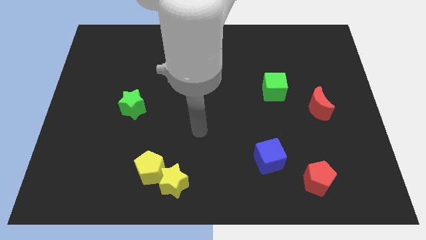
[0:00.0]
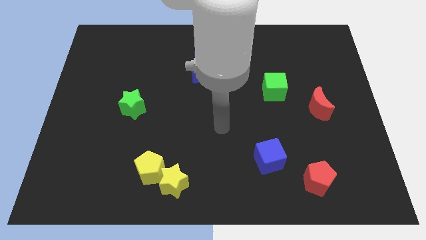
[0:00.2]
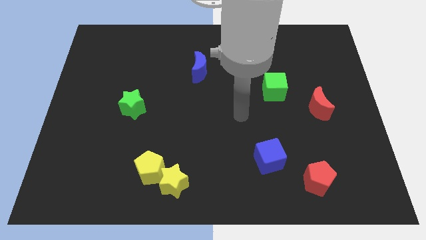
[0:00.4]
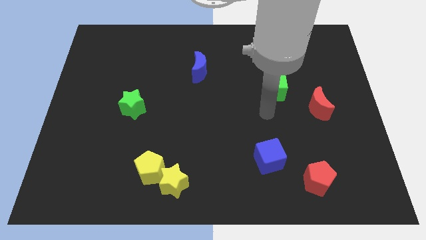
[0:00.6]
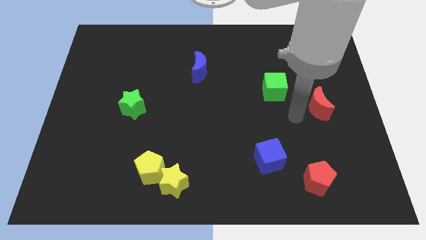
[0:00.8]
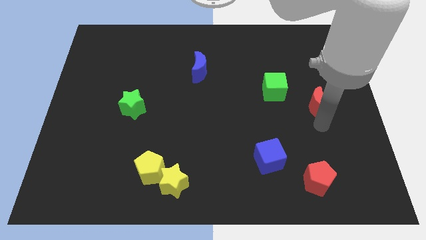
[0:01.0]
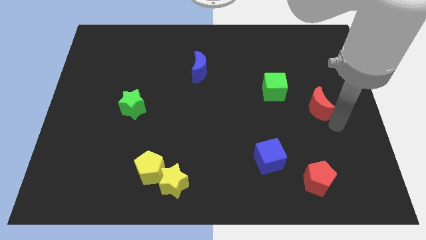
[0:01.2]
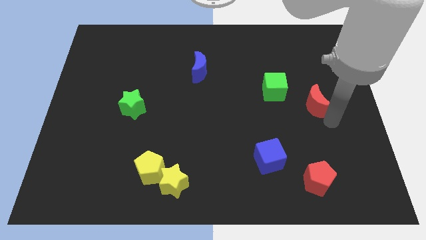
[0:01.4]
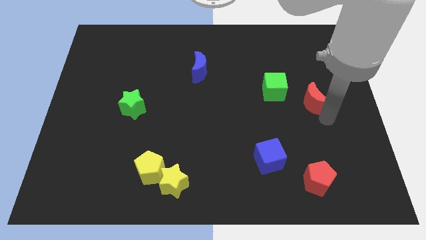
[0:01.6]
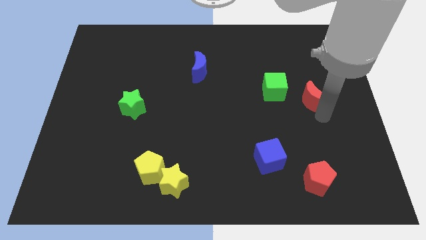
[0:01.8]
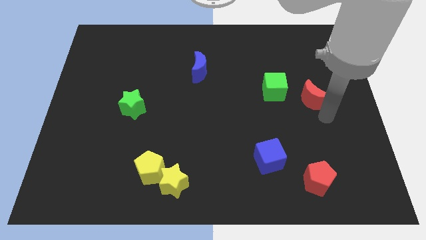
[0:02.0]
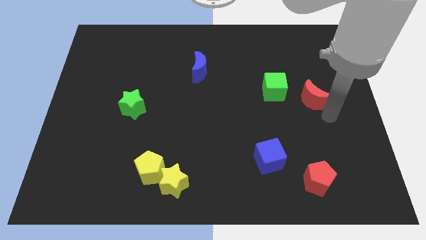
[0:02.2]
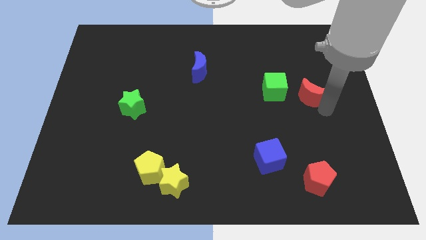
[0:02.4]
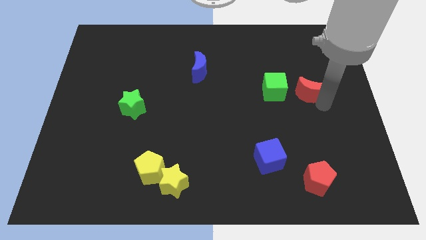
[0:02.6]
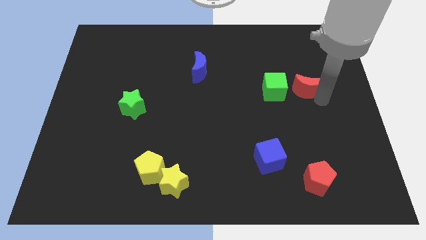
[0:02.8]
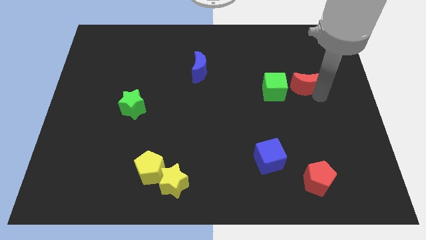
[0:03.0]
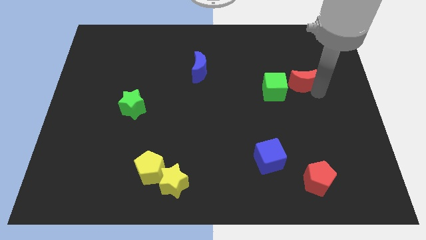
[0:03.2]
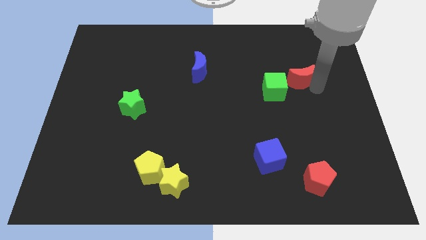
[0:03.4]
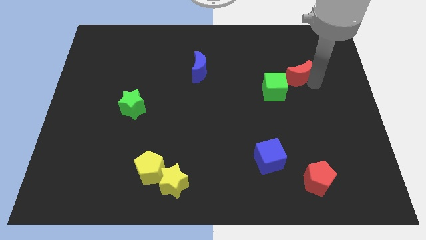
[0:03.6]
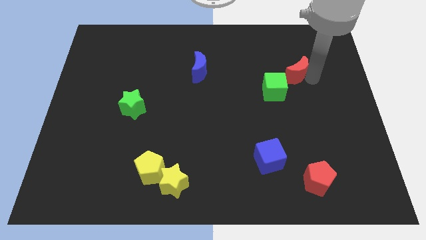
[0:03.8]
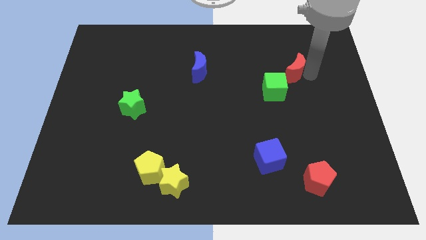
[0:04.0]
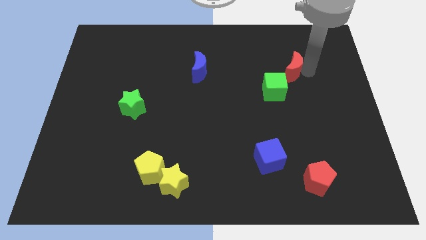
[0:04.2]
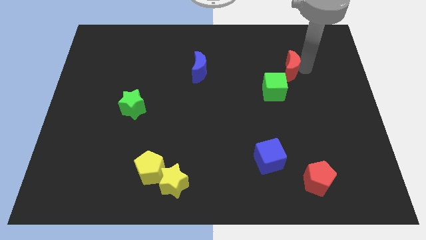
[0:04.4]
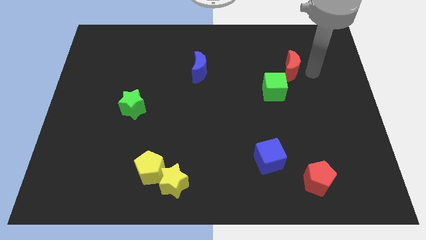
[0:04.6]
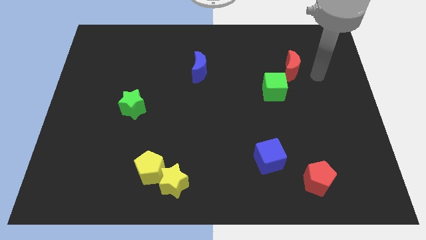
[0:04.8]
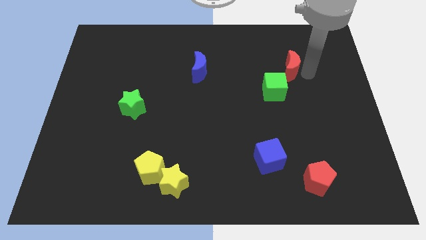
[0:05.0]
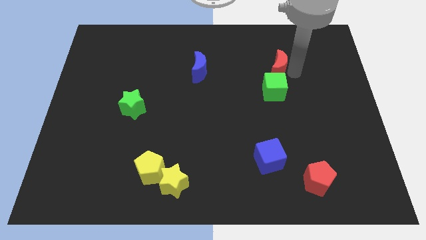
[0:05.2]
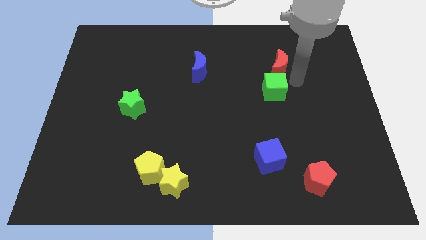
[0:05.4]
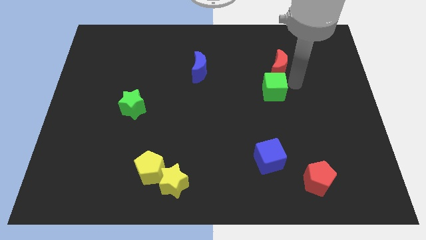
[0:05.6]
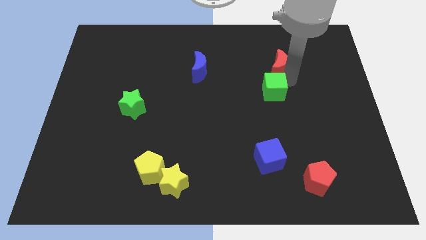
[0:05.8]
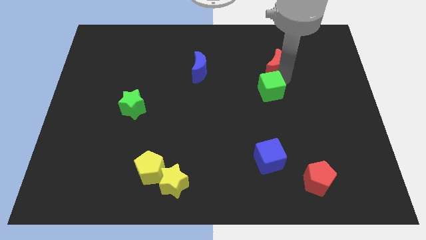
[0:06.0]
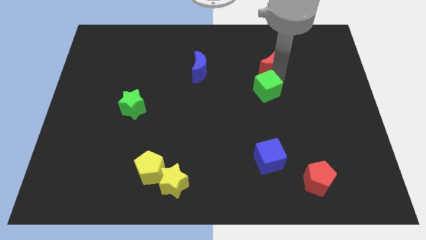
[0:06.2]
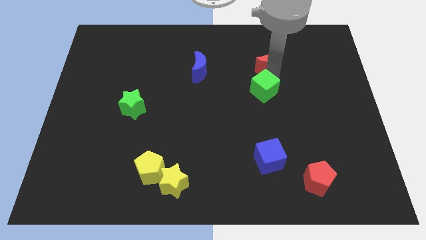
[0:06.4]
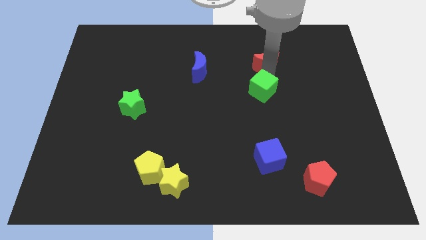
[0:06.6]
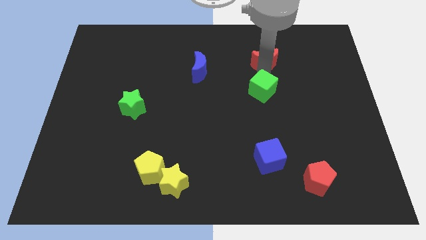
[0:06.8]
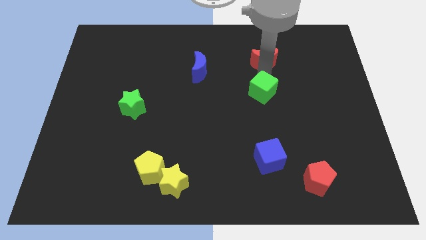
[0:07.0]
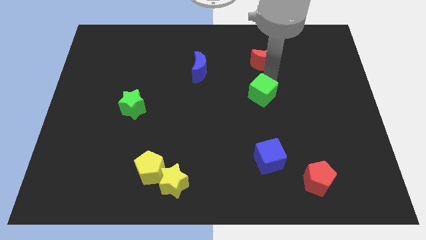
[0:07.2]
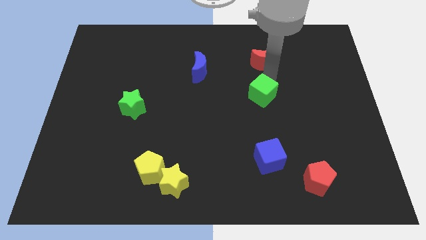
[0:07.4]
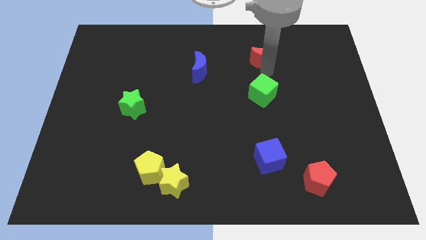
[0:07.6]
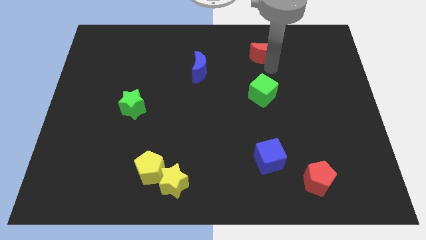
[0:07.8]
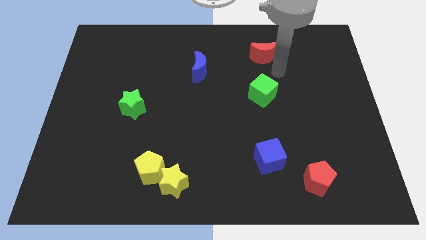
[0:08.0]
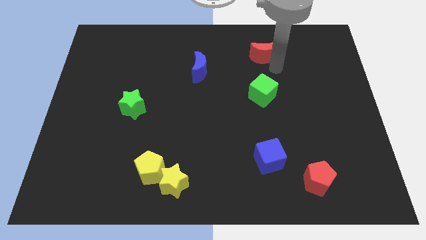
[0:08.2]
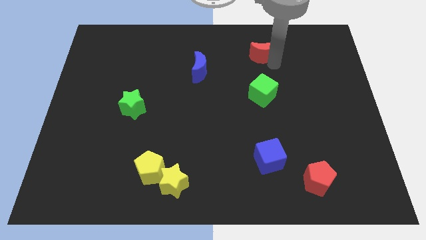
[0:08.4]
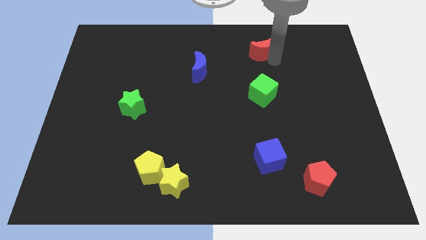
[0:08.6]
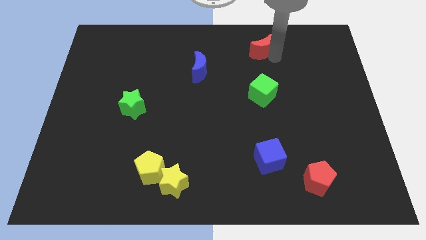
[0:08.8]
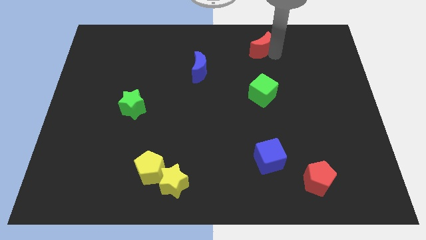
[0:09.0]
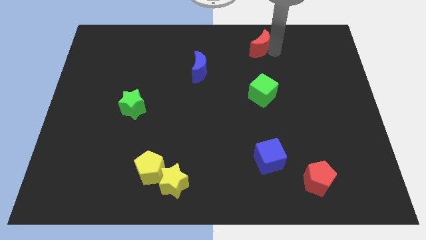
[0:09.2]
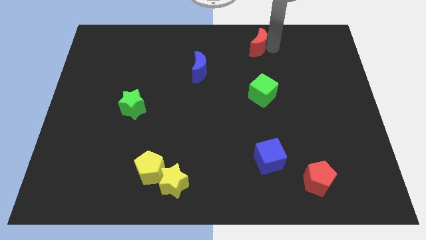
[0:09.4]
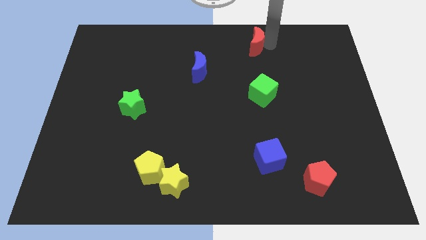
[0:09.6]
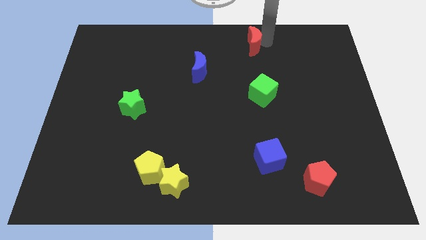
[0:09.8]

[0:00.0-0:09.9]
slide the red moon to the top side

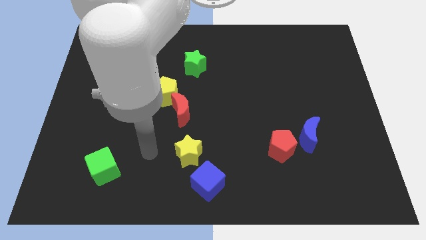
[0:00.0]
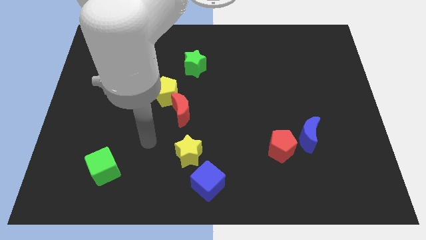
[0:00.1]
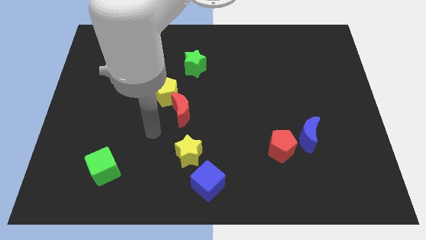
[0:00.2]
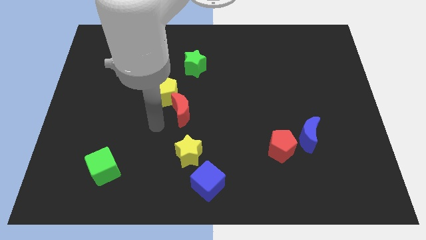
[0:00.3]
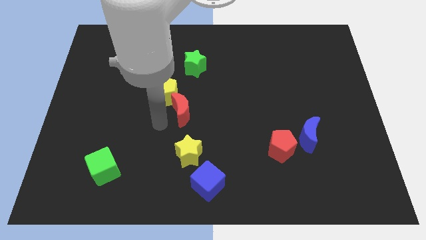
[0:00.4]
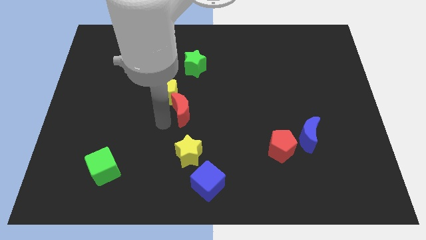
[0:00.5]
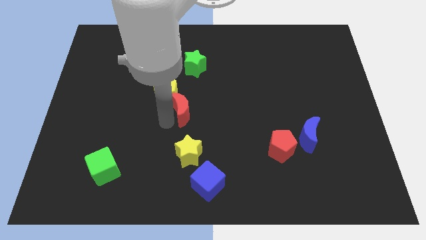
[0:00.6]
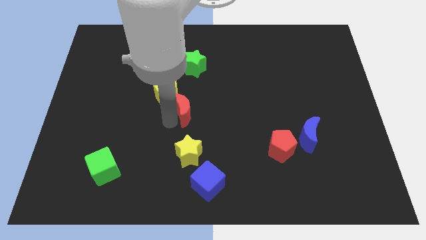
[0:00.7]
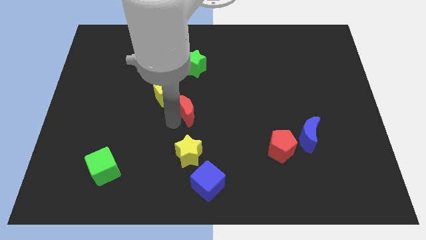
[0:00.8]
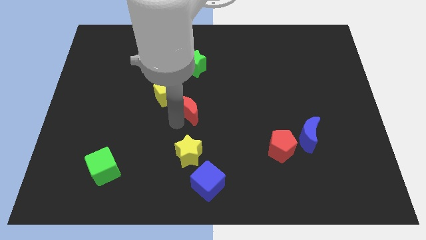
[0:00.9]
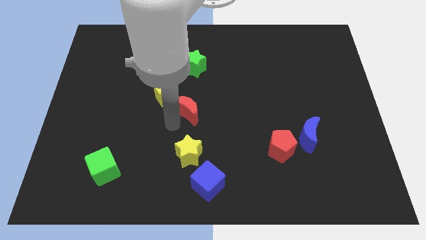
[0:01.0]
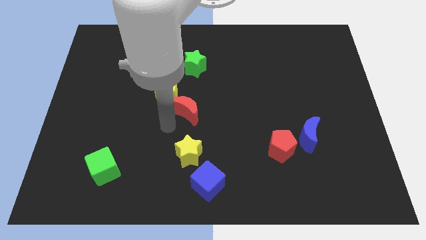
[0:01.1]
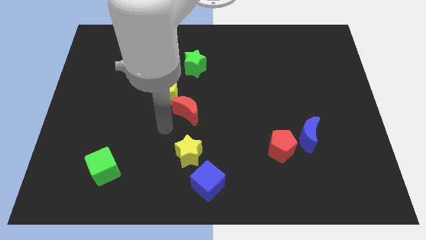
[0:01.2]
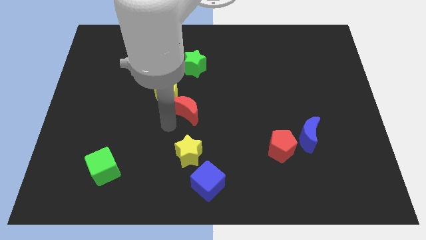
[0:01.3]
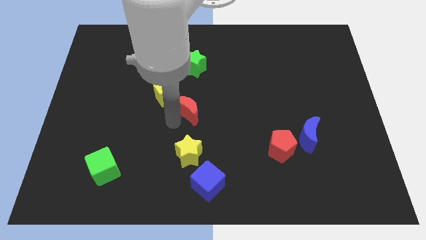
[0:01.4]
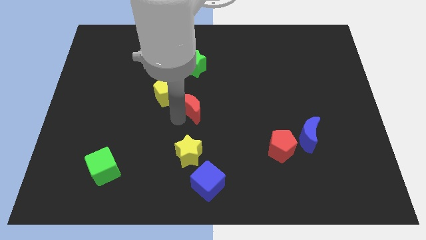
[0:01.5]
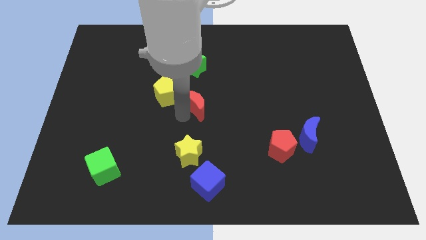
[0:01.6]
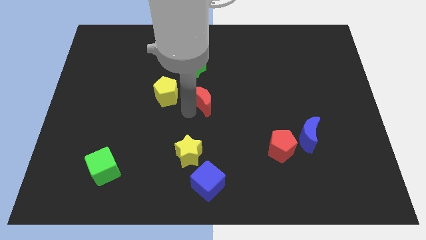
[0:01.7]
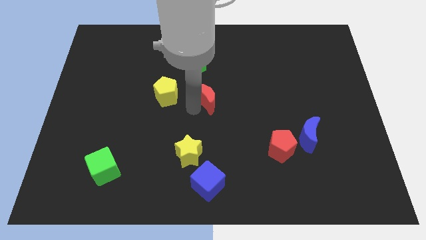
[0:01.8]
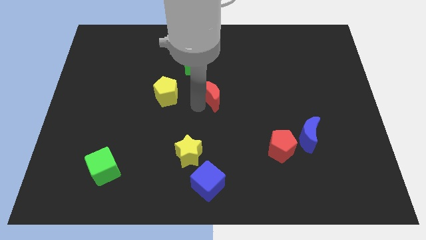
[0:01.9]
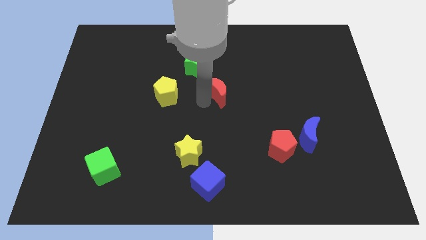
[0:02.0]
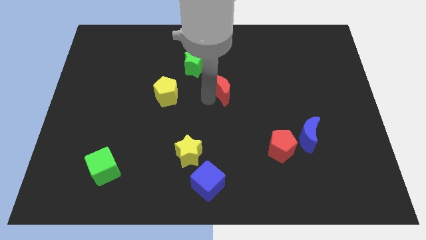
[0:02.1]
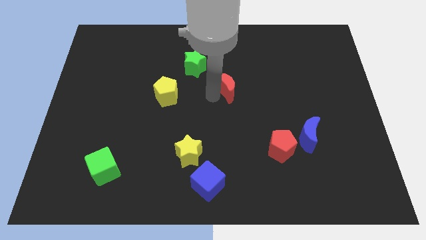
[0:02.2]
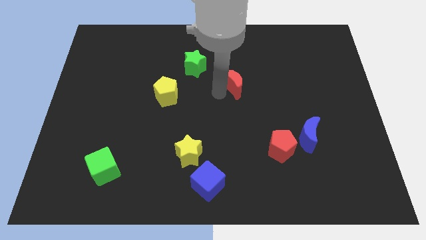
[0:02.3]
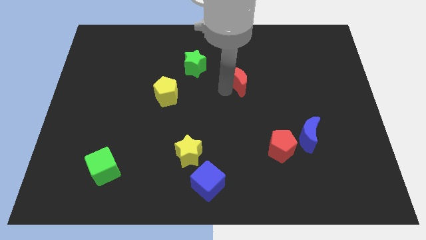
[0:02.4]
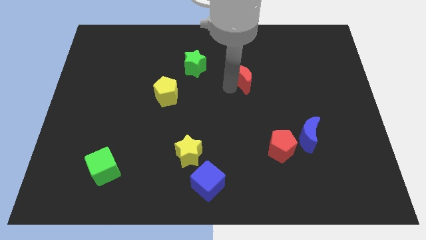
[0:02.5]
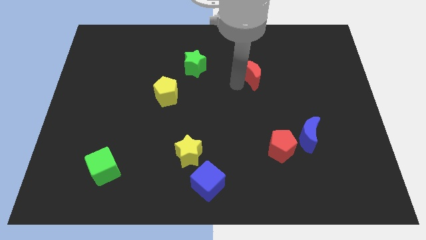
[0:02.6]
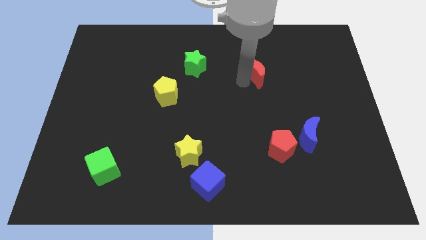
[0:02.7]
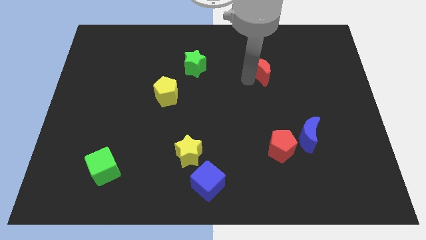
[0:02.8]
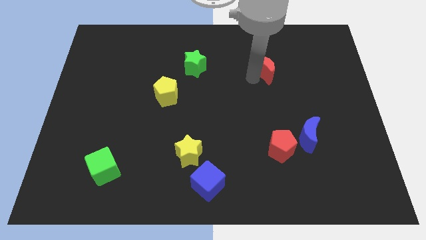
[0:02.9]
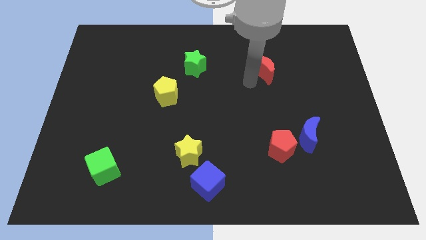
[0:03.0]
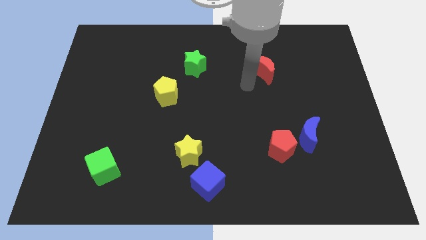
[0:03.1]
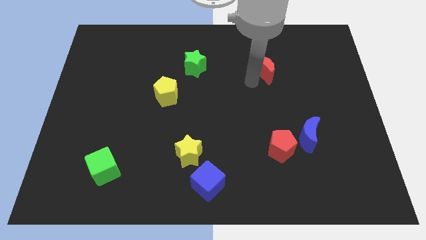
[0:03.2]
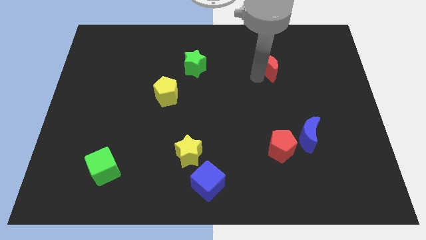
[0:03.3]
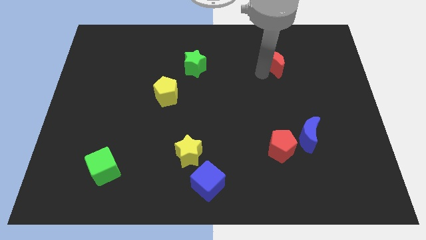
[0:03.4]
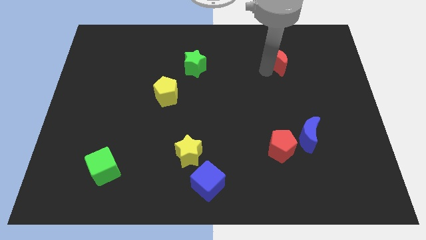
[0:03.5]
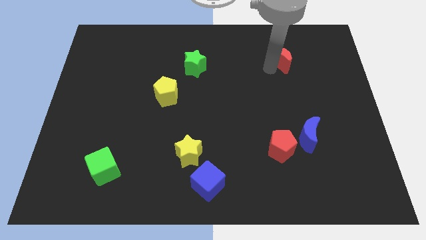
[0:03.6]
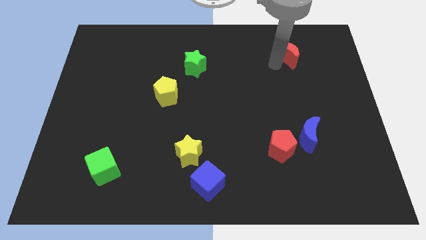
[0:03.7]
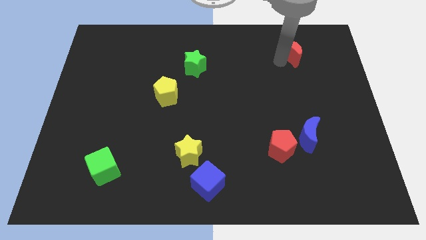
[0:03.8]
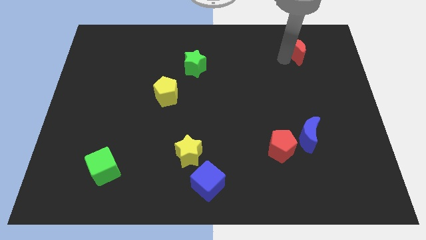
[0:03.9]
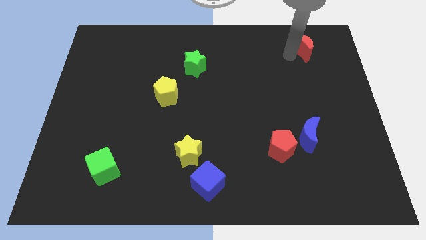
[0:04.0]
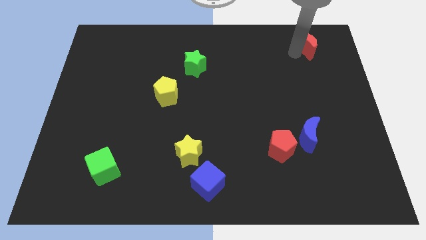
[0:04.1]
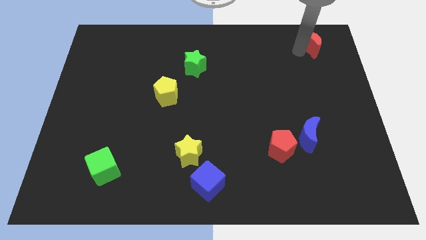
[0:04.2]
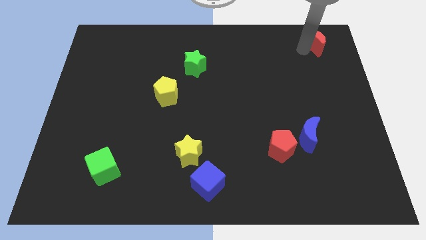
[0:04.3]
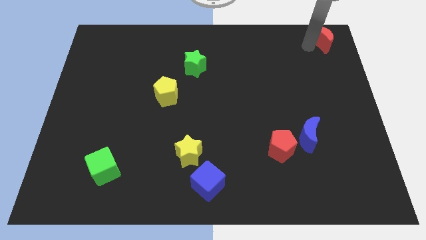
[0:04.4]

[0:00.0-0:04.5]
move the red moon to the top right
